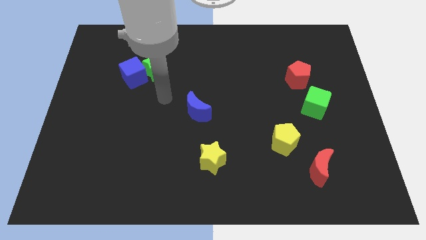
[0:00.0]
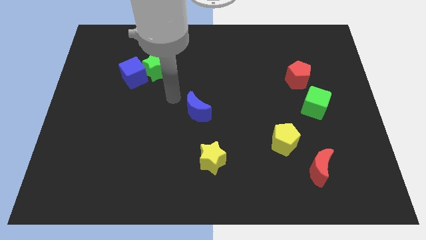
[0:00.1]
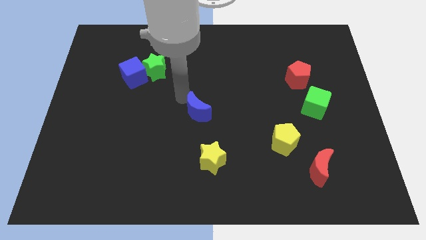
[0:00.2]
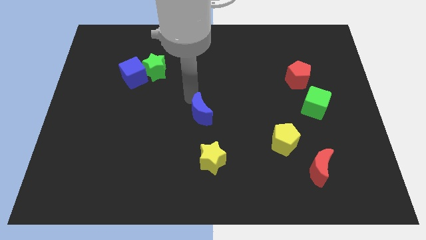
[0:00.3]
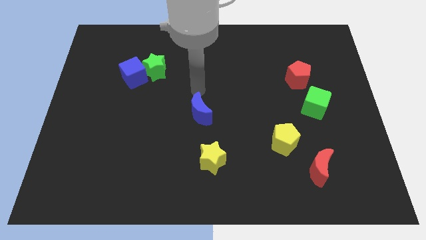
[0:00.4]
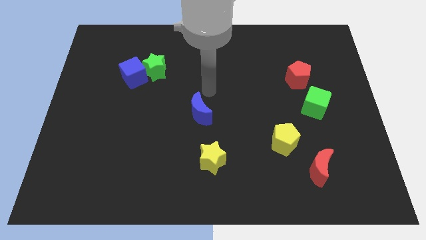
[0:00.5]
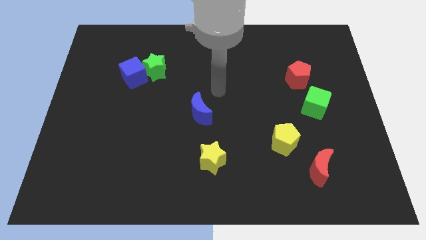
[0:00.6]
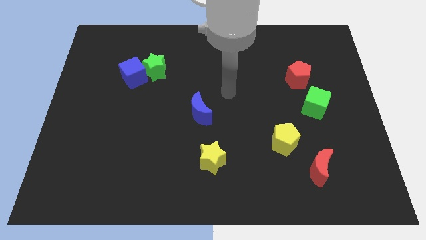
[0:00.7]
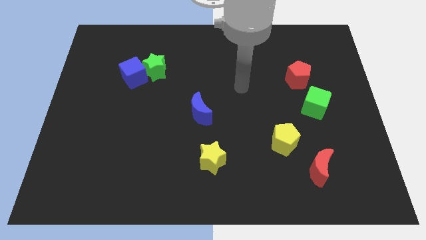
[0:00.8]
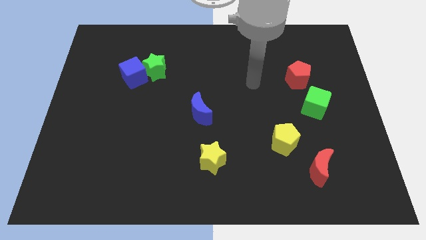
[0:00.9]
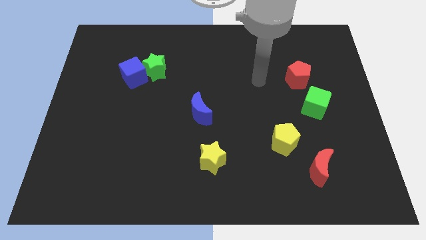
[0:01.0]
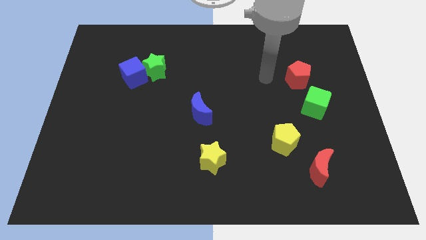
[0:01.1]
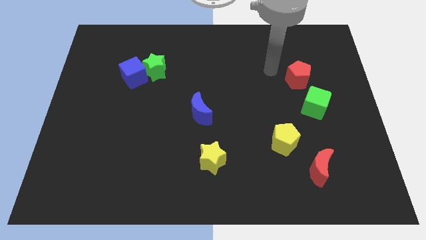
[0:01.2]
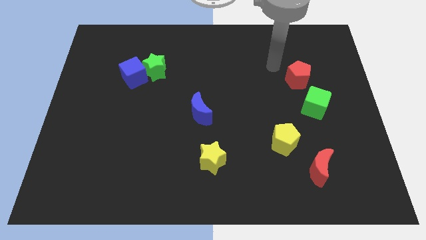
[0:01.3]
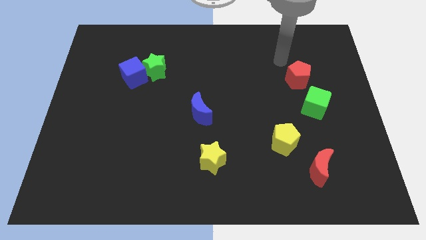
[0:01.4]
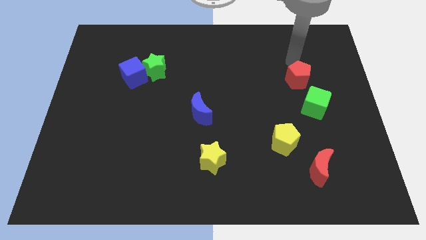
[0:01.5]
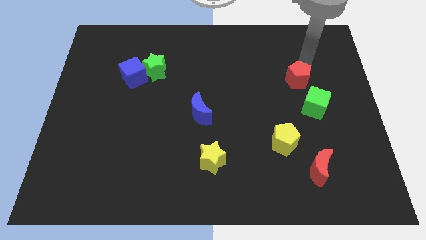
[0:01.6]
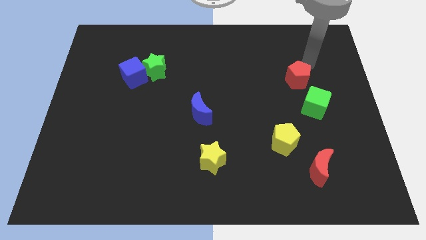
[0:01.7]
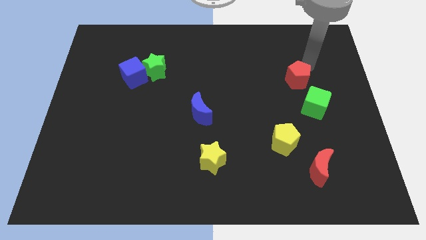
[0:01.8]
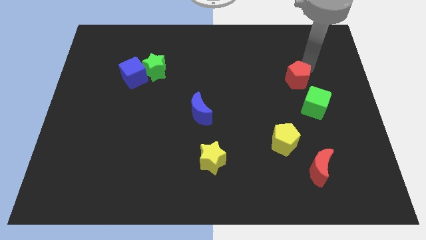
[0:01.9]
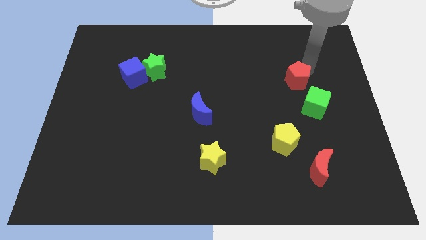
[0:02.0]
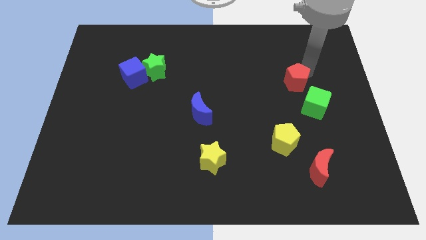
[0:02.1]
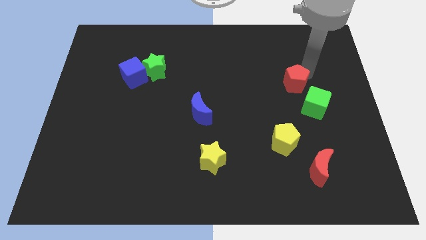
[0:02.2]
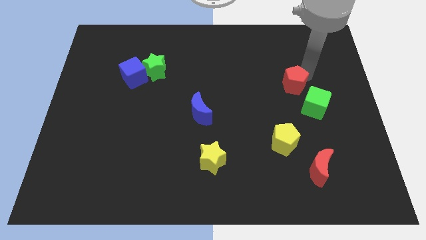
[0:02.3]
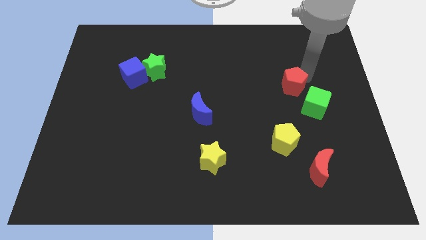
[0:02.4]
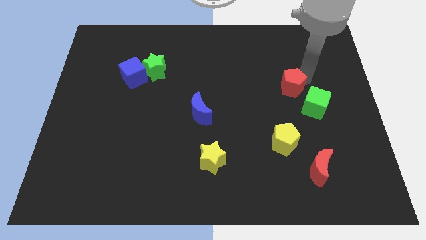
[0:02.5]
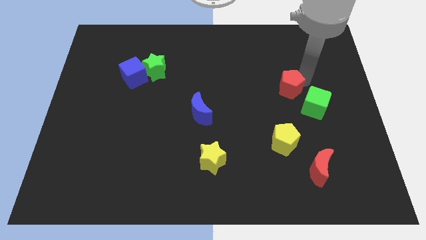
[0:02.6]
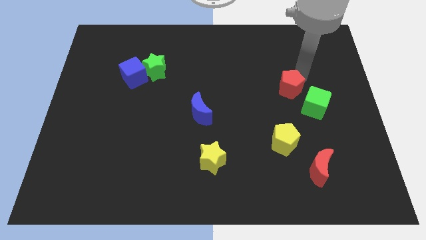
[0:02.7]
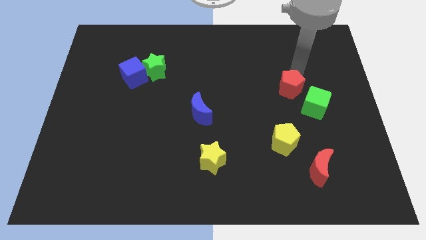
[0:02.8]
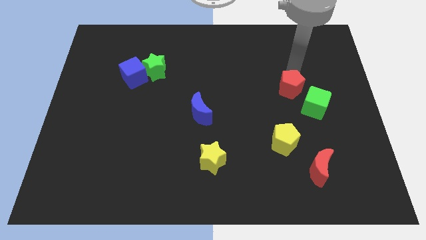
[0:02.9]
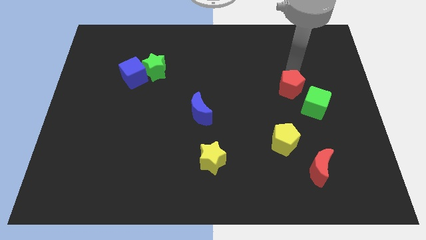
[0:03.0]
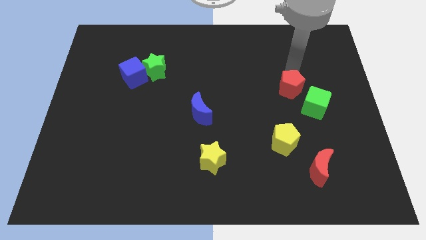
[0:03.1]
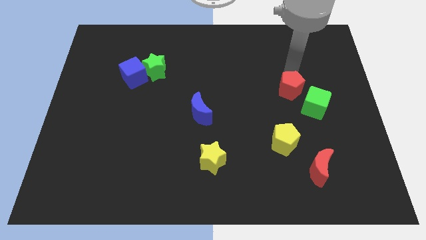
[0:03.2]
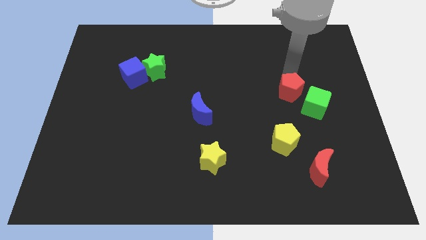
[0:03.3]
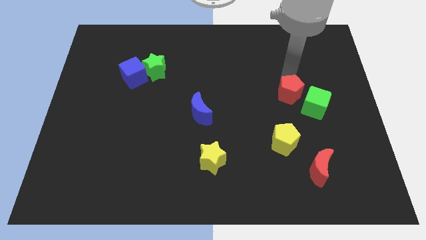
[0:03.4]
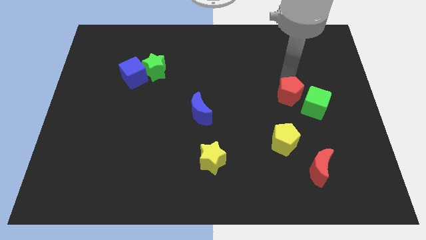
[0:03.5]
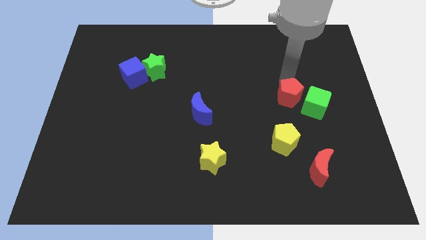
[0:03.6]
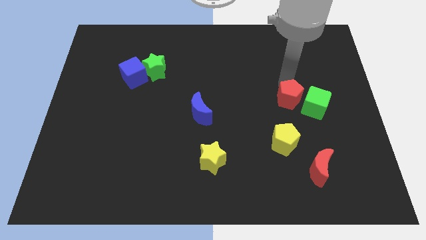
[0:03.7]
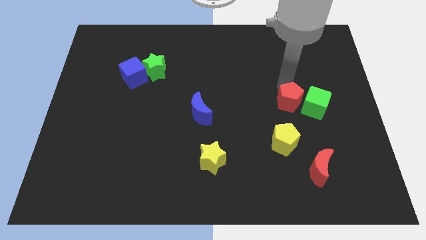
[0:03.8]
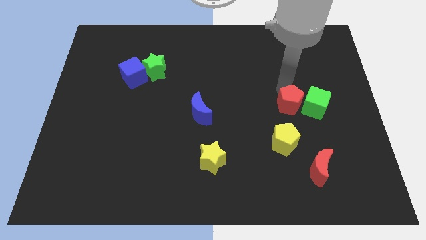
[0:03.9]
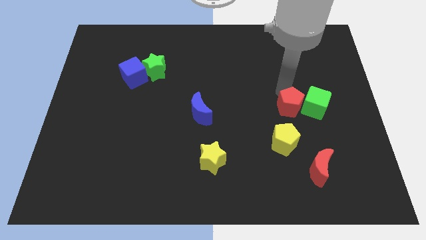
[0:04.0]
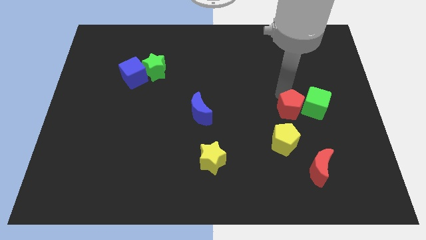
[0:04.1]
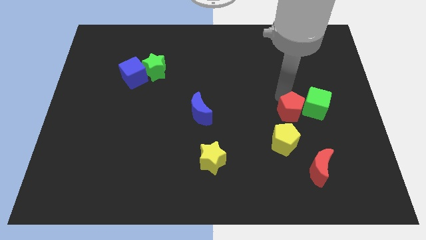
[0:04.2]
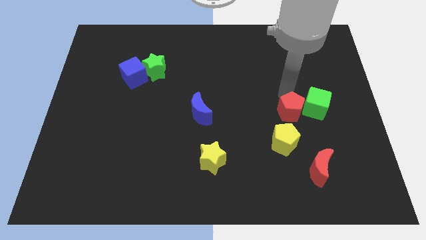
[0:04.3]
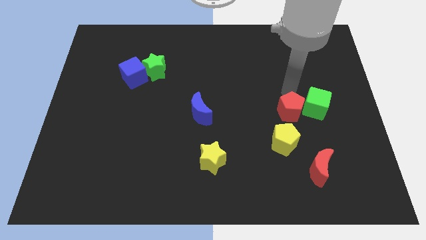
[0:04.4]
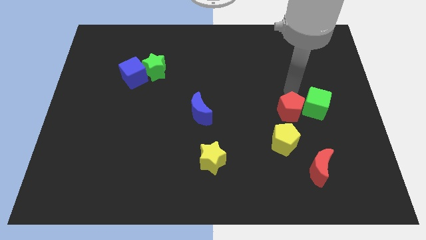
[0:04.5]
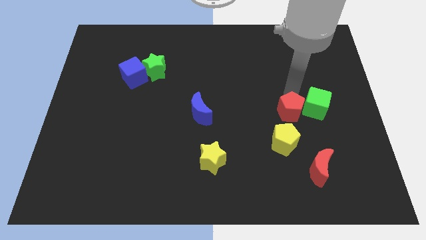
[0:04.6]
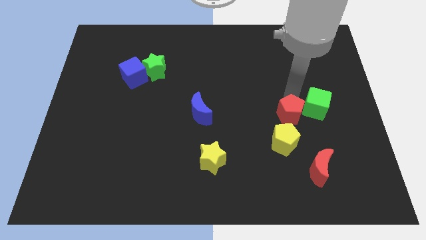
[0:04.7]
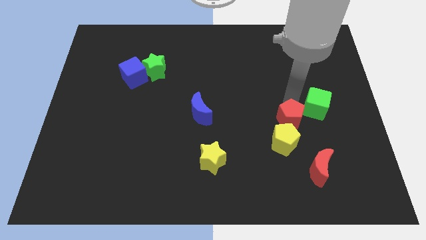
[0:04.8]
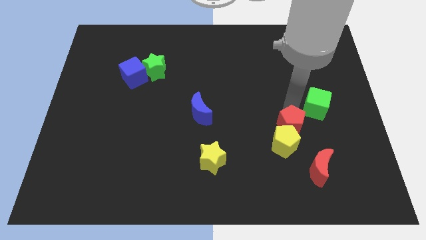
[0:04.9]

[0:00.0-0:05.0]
slide the red pentagon next to the yellow pentagon

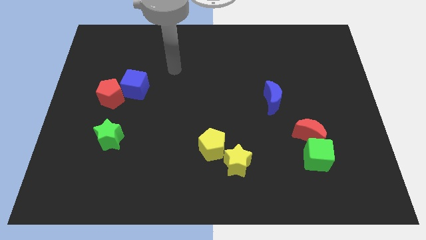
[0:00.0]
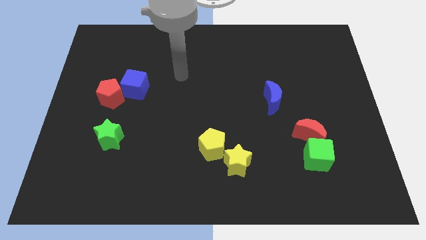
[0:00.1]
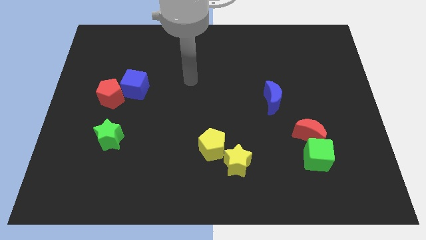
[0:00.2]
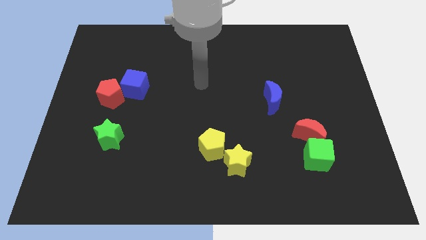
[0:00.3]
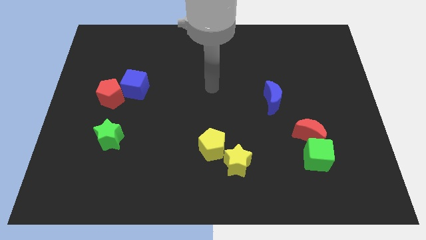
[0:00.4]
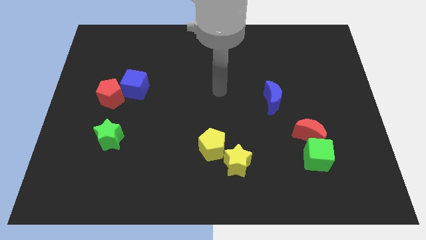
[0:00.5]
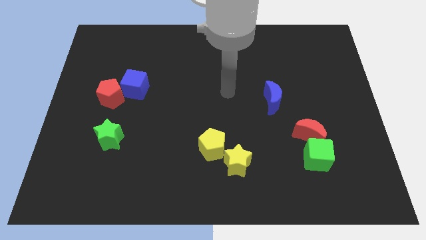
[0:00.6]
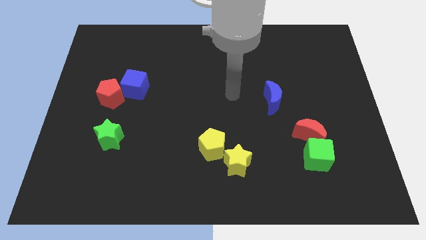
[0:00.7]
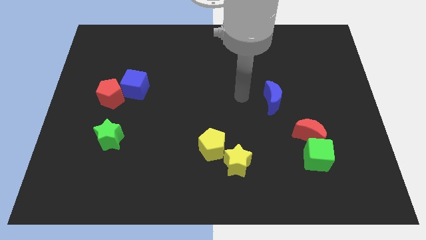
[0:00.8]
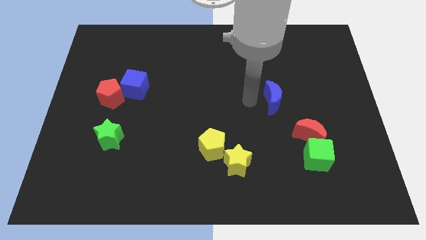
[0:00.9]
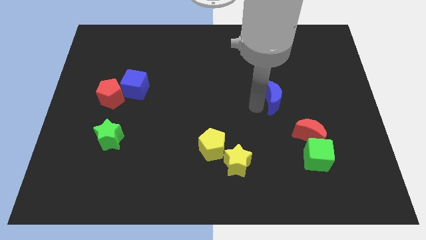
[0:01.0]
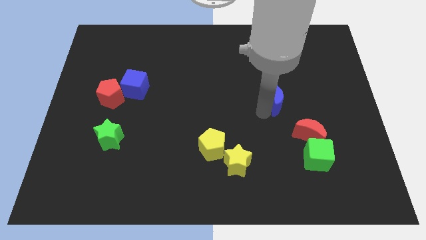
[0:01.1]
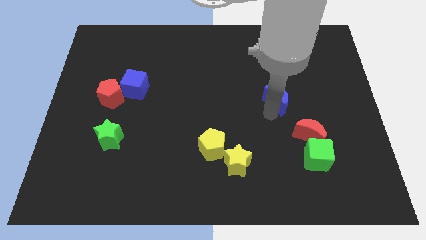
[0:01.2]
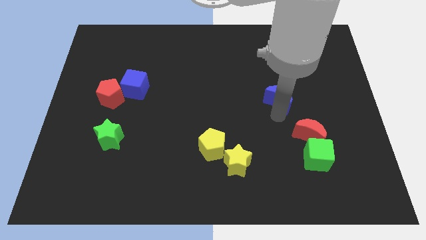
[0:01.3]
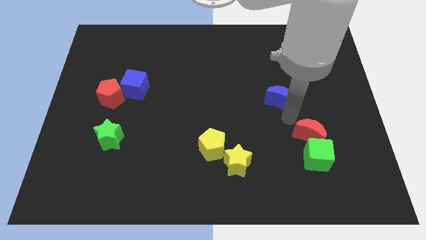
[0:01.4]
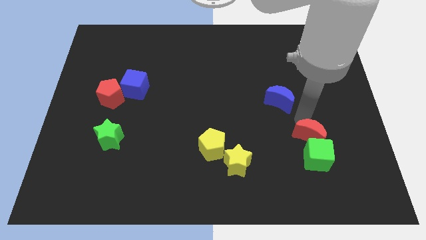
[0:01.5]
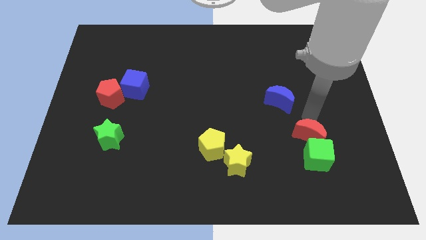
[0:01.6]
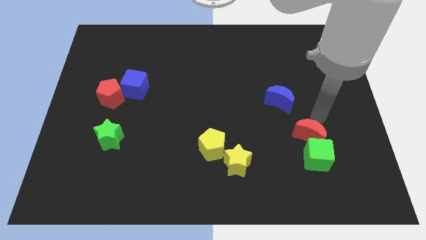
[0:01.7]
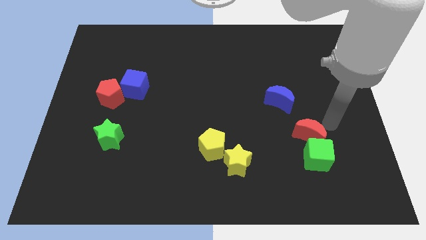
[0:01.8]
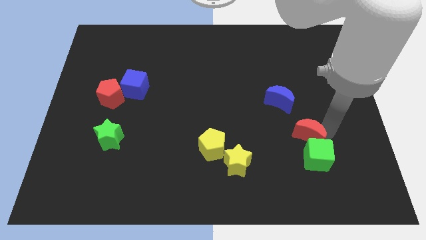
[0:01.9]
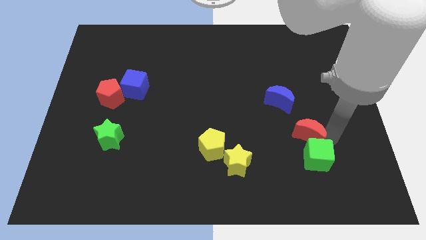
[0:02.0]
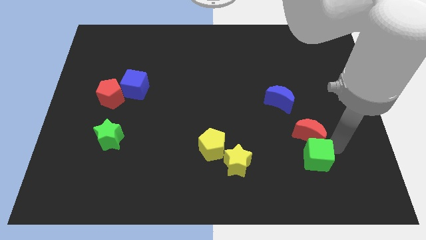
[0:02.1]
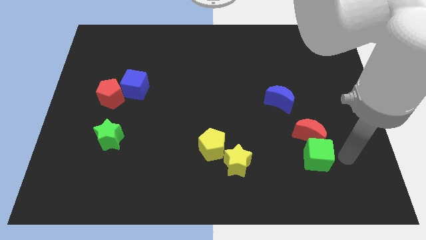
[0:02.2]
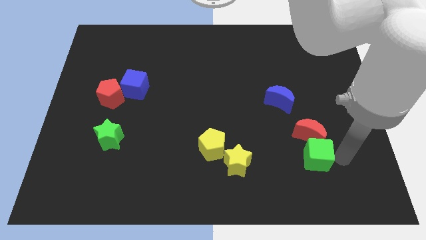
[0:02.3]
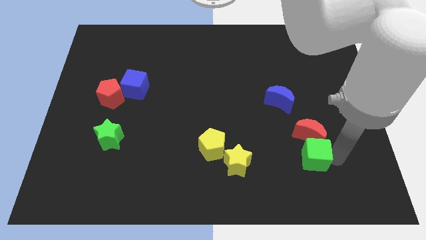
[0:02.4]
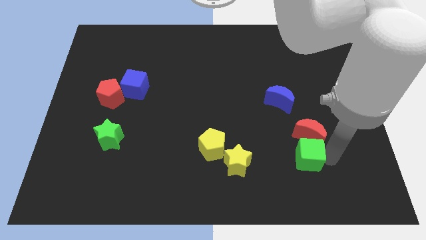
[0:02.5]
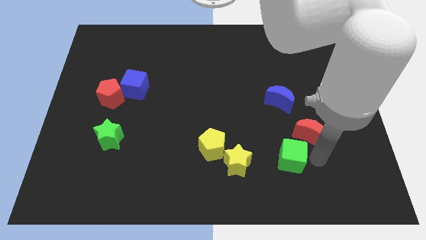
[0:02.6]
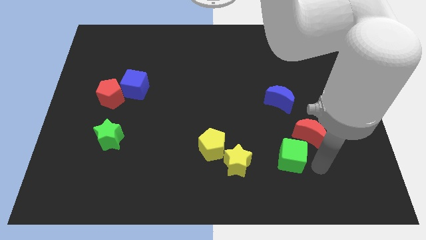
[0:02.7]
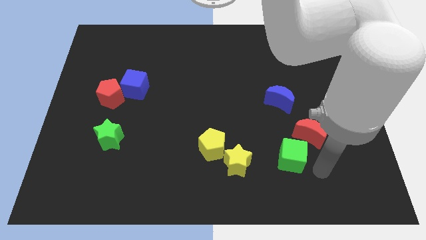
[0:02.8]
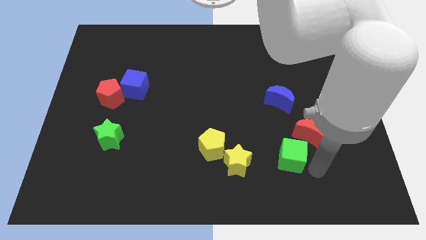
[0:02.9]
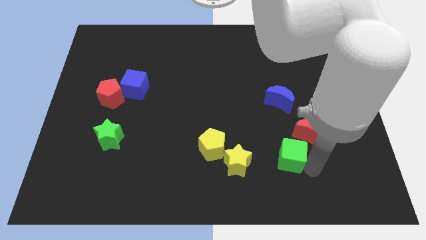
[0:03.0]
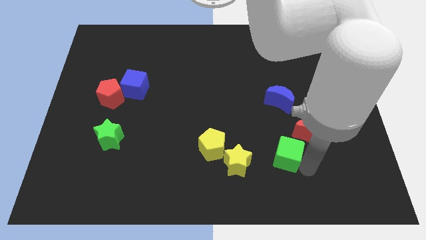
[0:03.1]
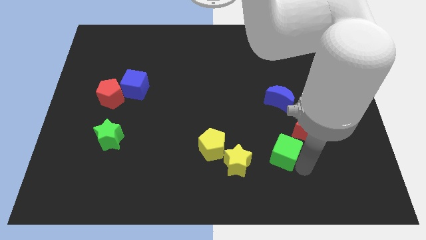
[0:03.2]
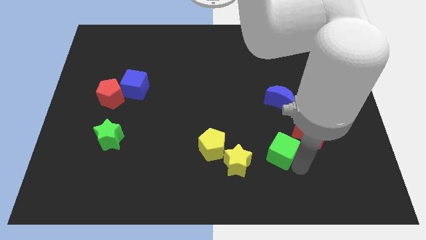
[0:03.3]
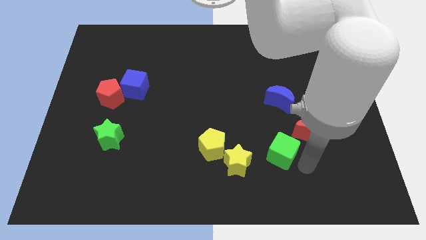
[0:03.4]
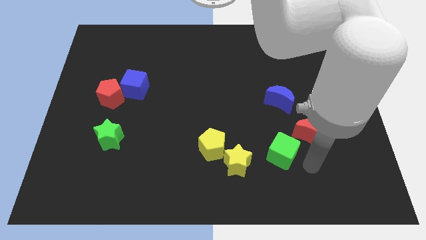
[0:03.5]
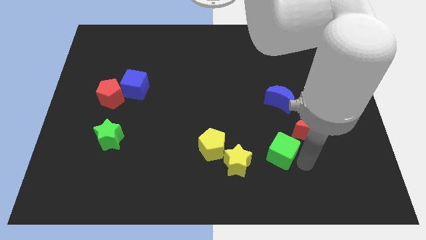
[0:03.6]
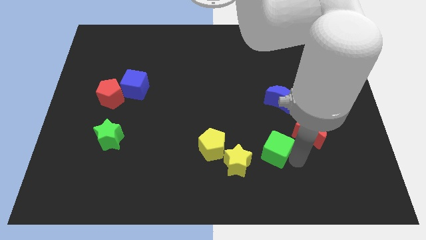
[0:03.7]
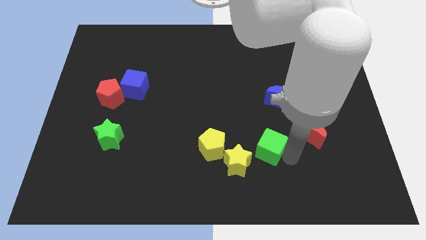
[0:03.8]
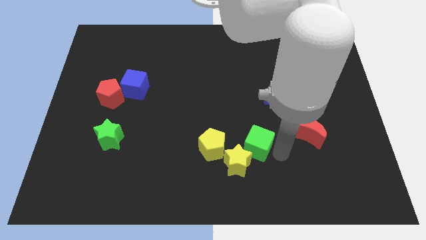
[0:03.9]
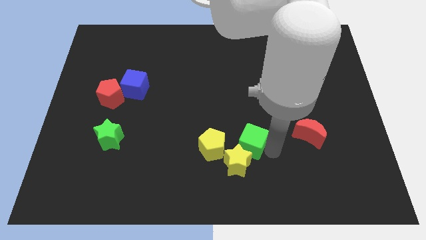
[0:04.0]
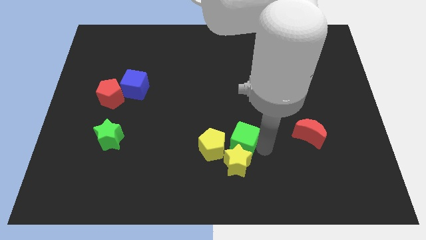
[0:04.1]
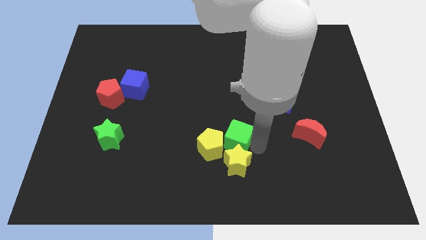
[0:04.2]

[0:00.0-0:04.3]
push the green cube to the yellow pentagon
